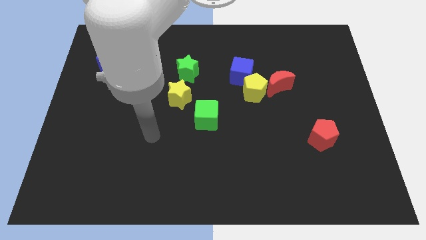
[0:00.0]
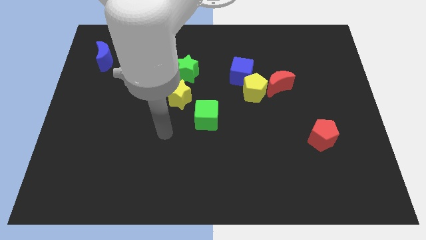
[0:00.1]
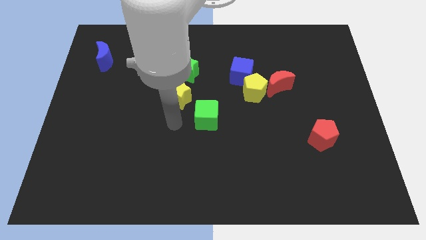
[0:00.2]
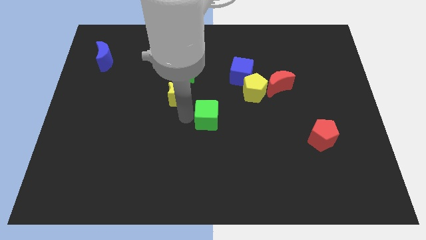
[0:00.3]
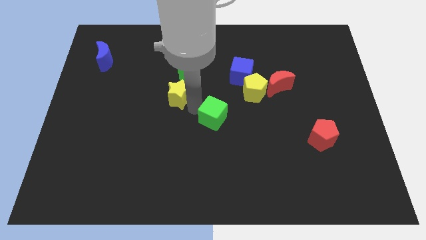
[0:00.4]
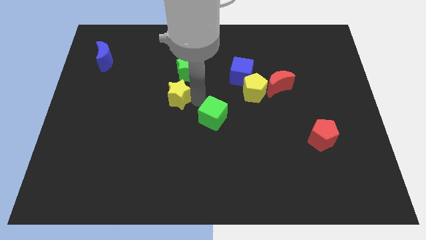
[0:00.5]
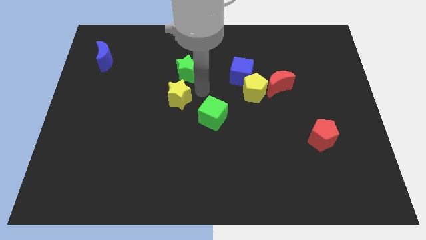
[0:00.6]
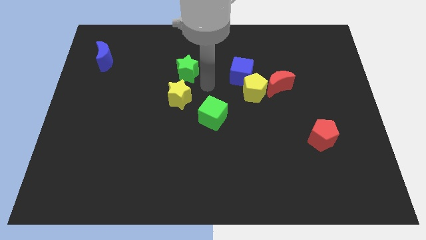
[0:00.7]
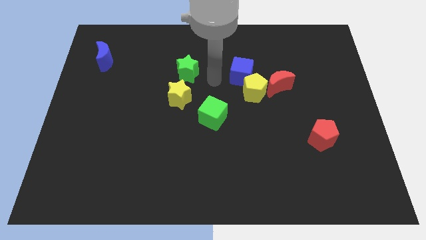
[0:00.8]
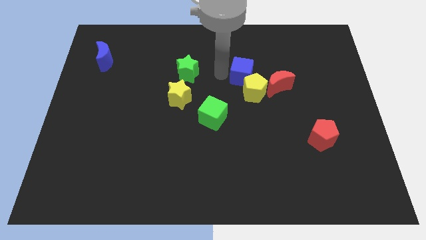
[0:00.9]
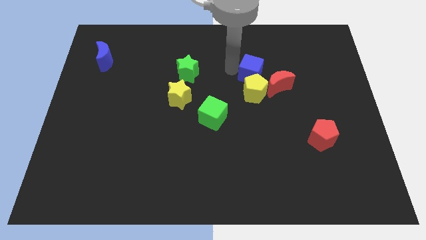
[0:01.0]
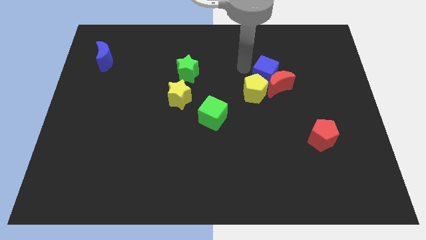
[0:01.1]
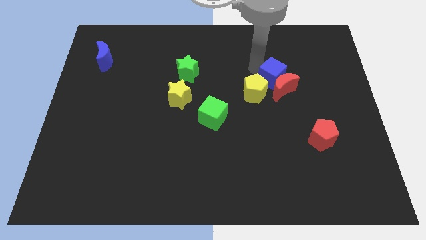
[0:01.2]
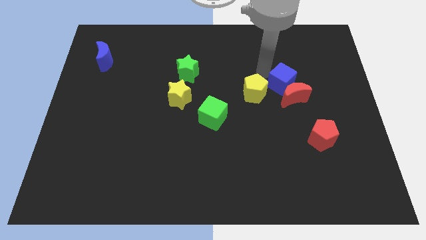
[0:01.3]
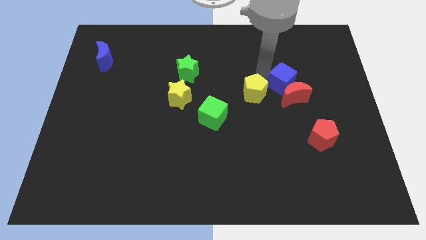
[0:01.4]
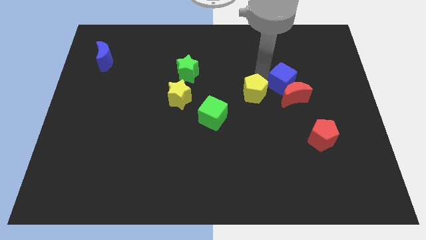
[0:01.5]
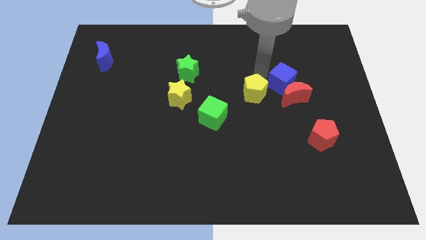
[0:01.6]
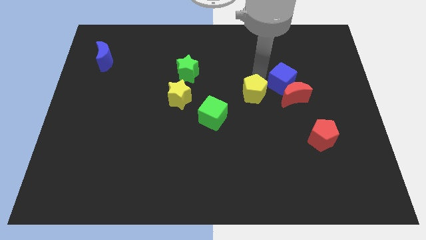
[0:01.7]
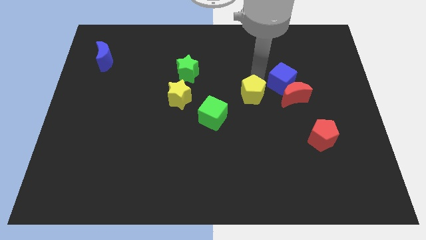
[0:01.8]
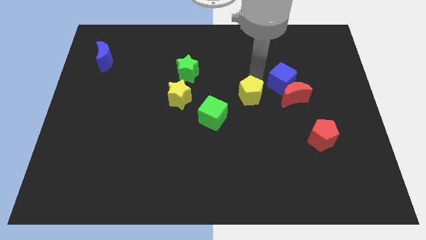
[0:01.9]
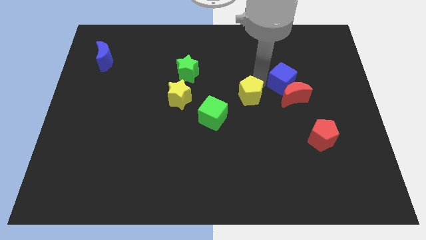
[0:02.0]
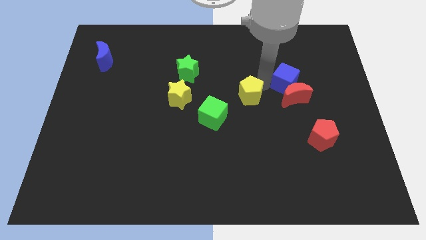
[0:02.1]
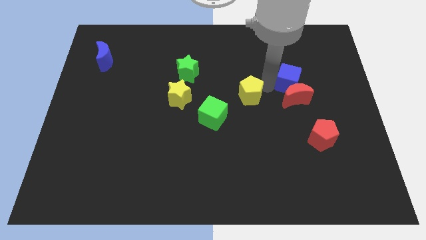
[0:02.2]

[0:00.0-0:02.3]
move the yellow pentagon away from the blue cube and red moon

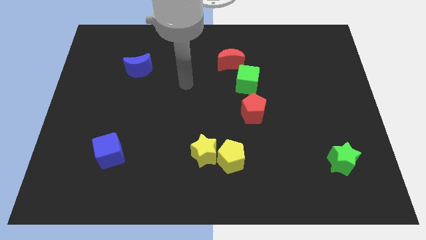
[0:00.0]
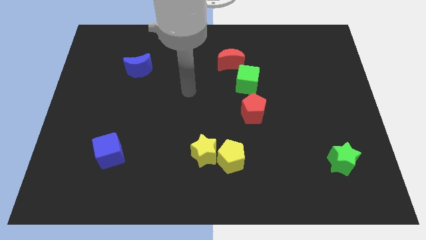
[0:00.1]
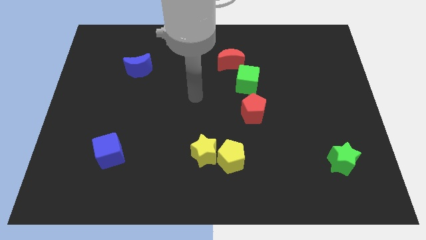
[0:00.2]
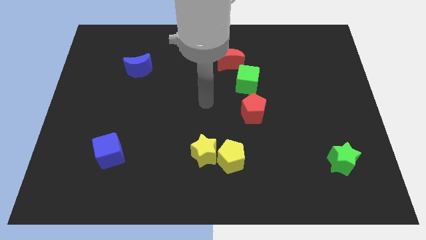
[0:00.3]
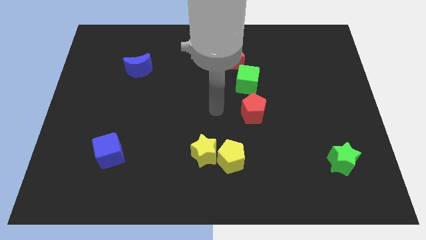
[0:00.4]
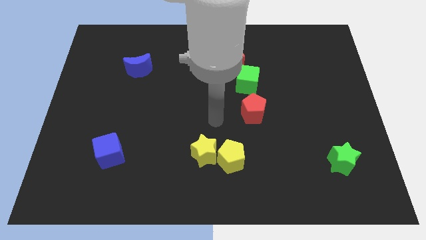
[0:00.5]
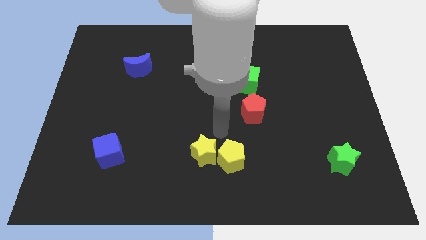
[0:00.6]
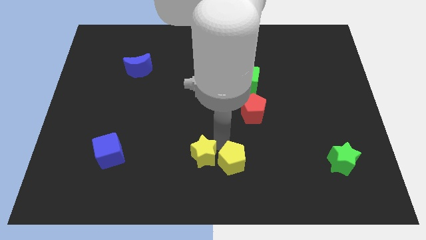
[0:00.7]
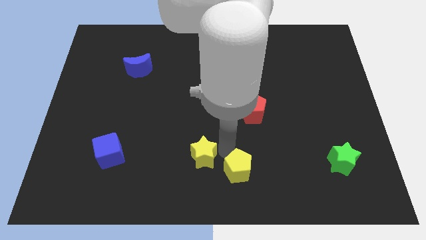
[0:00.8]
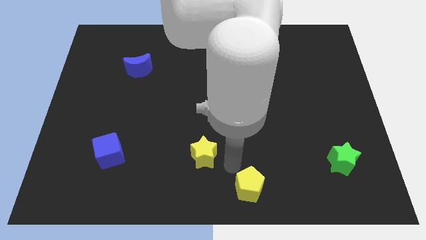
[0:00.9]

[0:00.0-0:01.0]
move the yellow star away from the yellow pentagon

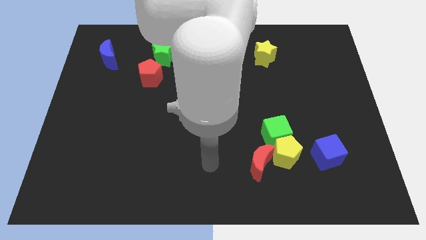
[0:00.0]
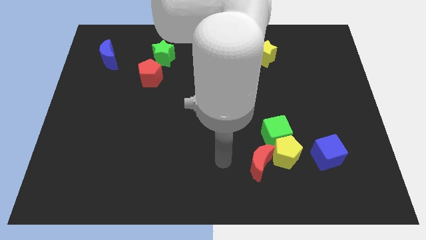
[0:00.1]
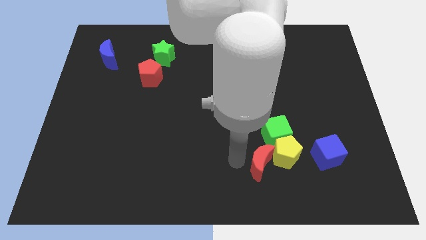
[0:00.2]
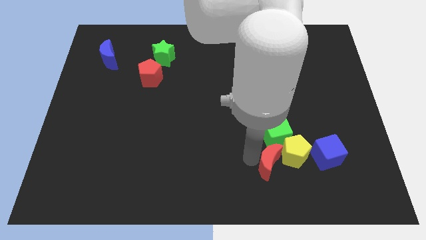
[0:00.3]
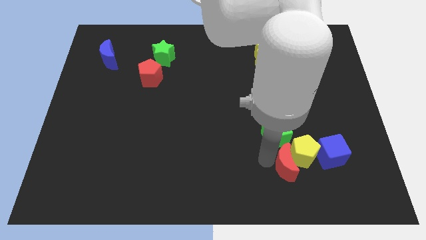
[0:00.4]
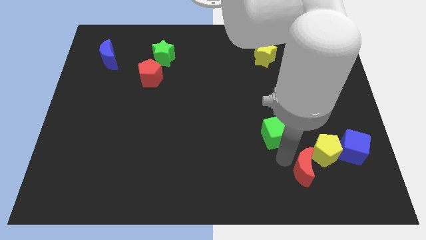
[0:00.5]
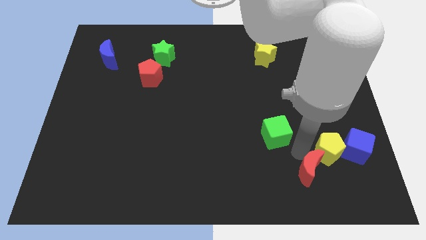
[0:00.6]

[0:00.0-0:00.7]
pull the green cube apart from the yellow pentagon and red moon

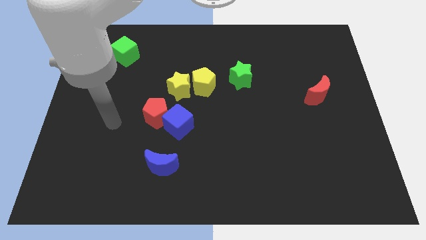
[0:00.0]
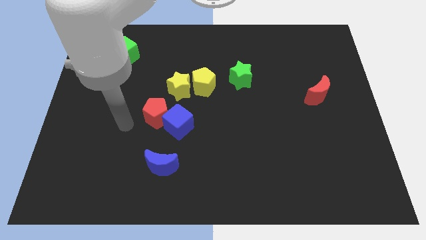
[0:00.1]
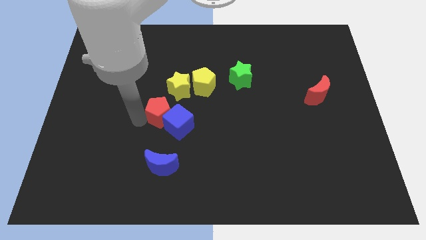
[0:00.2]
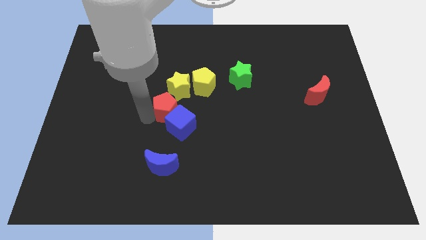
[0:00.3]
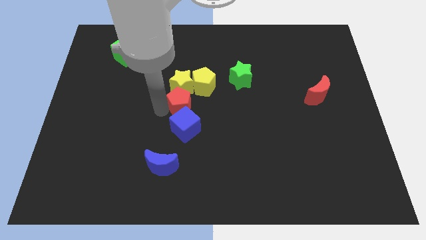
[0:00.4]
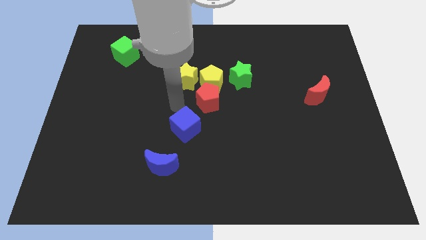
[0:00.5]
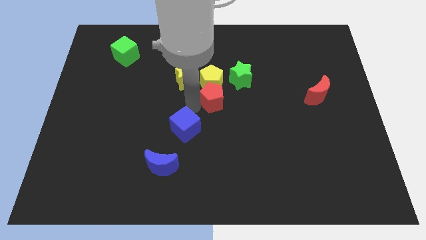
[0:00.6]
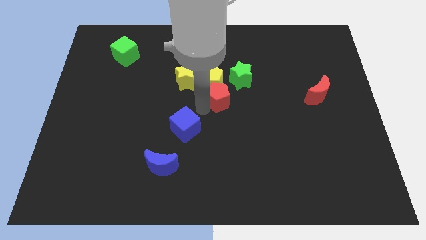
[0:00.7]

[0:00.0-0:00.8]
pull the blue cube apart from the red pentagon

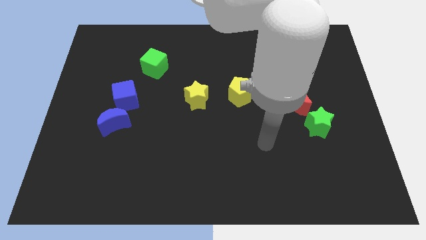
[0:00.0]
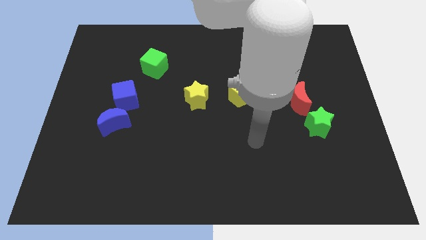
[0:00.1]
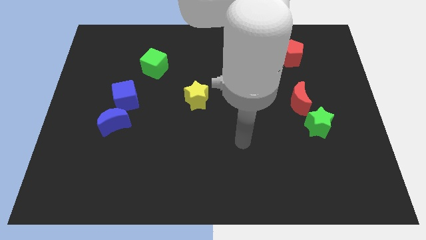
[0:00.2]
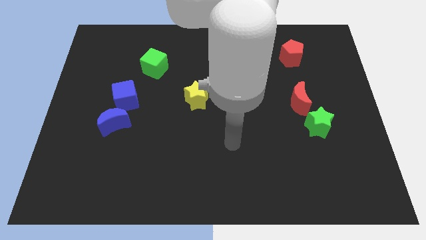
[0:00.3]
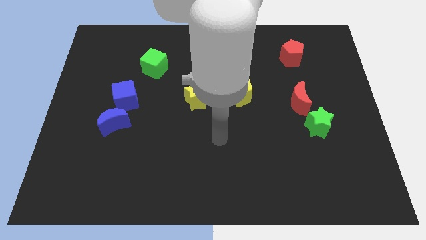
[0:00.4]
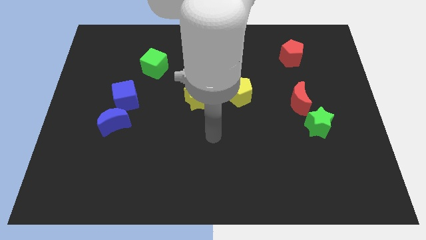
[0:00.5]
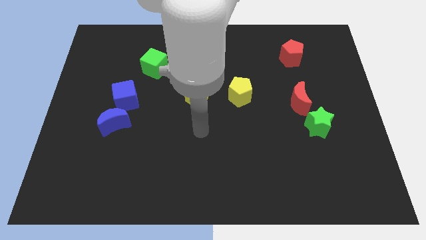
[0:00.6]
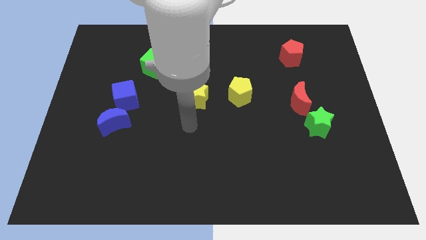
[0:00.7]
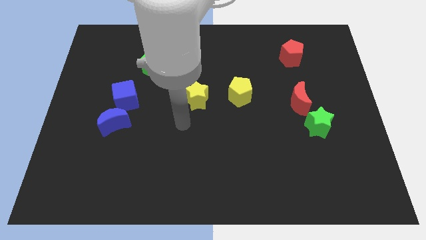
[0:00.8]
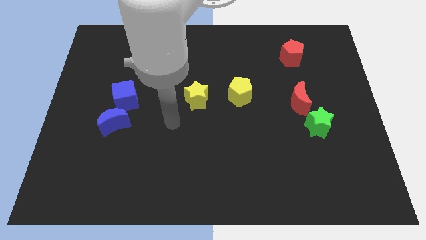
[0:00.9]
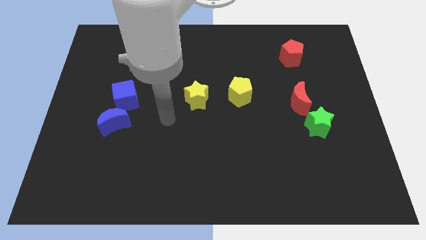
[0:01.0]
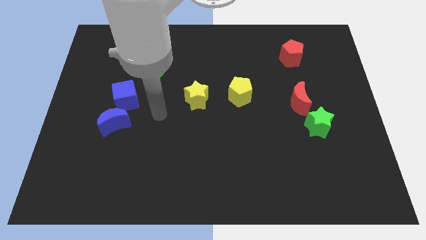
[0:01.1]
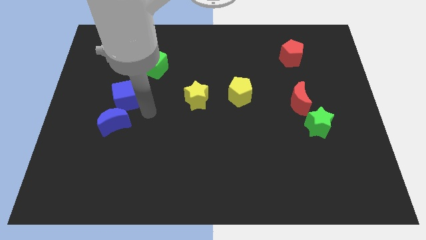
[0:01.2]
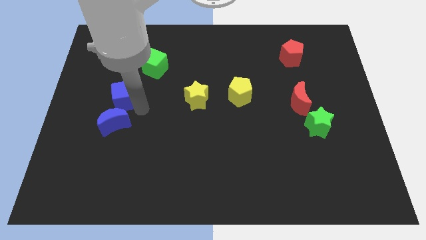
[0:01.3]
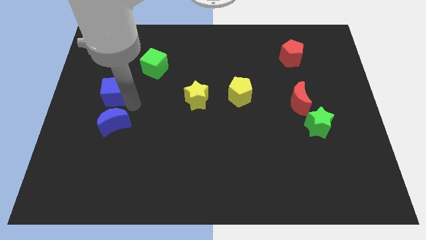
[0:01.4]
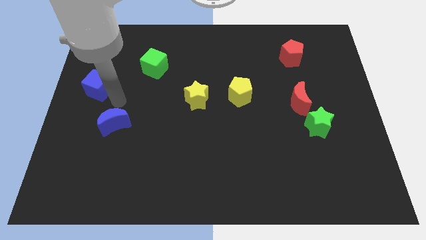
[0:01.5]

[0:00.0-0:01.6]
move the blue moon away from the blue cube

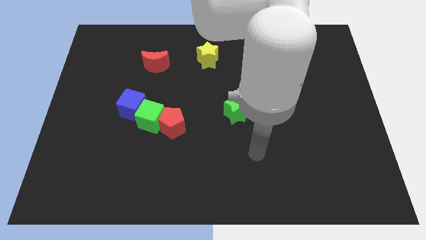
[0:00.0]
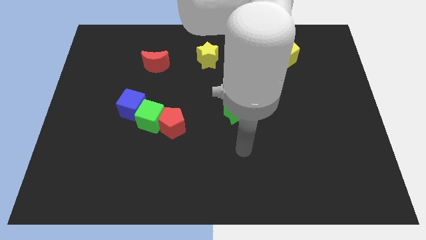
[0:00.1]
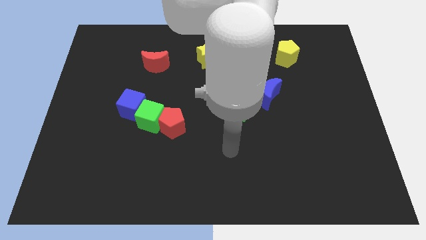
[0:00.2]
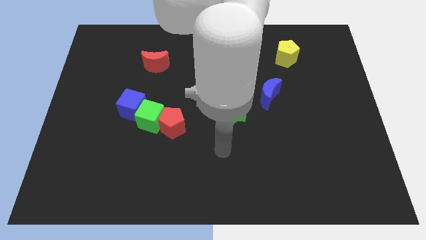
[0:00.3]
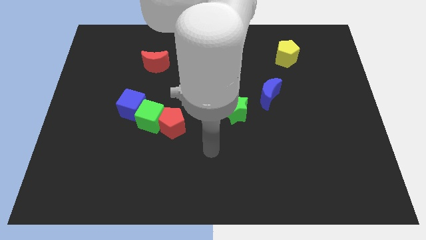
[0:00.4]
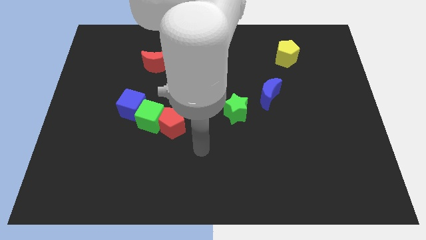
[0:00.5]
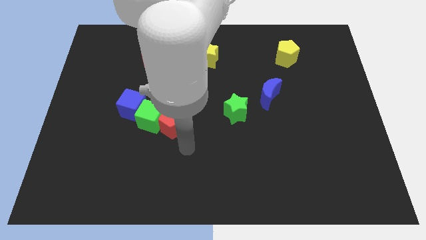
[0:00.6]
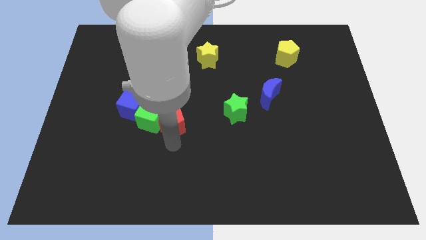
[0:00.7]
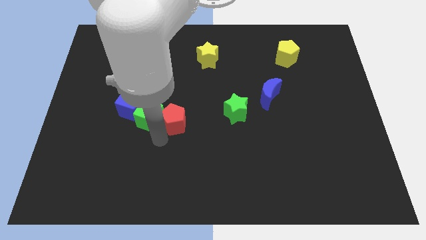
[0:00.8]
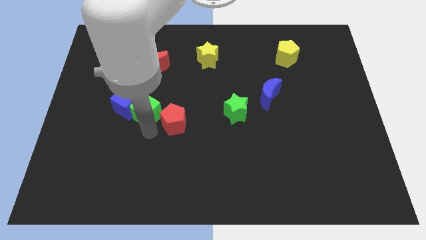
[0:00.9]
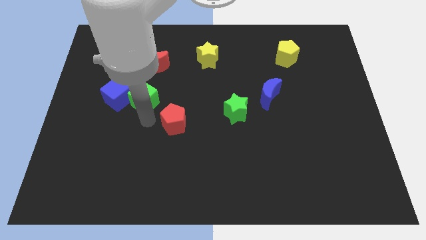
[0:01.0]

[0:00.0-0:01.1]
pull the red pentagon apart from the green cube

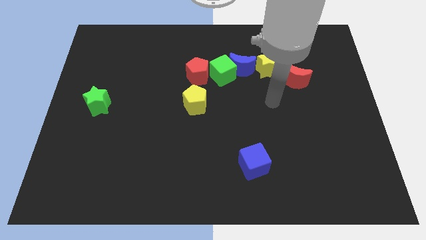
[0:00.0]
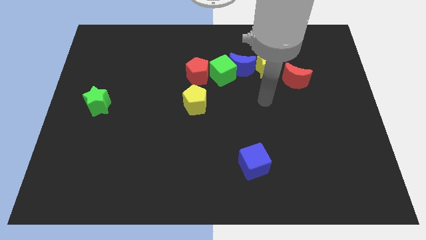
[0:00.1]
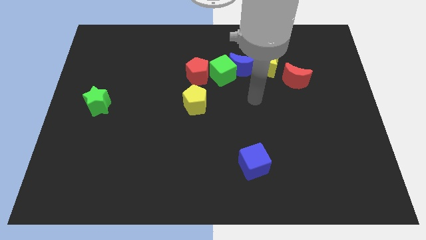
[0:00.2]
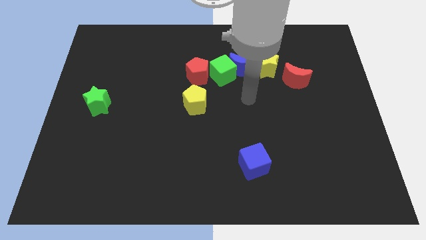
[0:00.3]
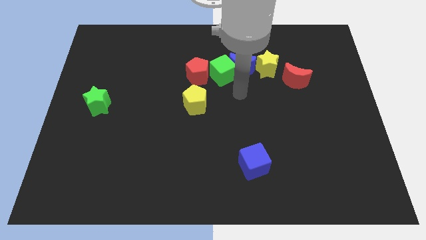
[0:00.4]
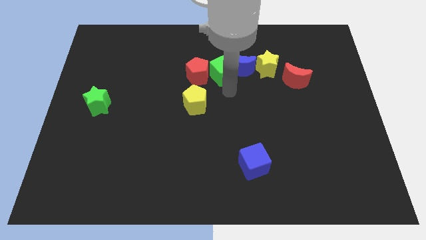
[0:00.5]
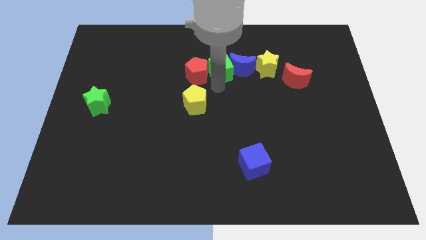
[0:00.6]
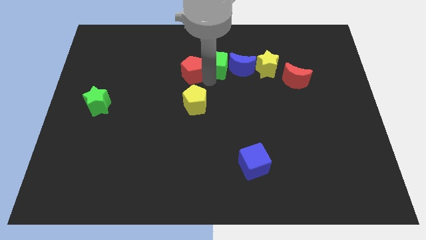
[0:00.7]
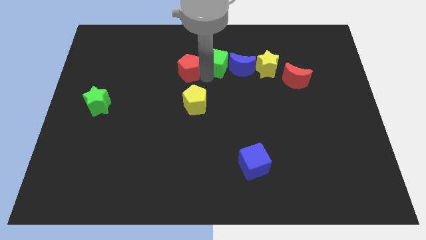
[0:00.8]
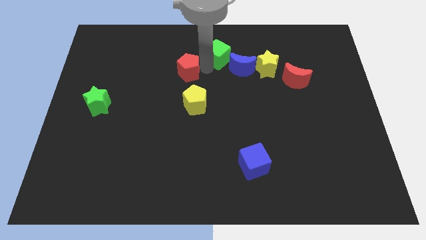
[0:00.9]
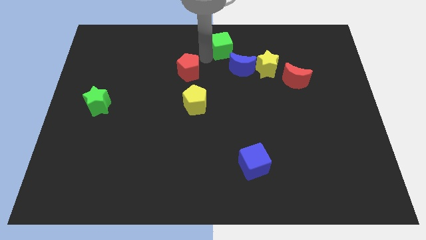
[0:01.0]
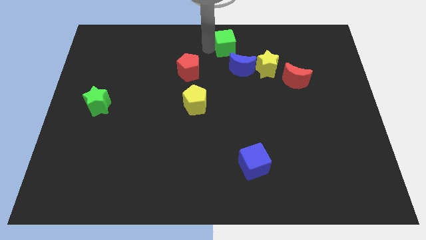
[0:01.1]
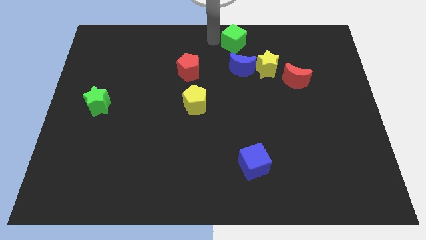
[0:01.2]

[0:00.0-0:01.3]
move the green cube away from the blue moon and red pentagon

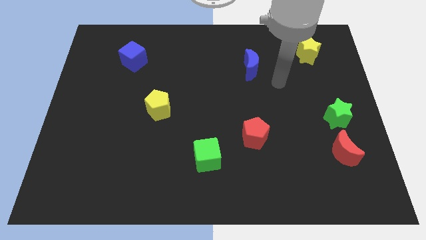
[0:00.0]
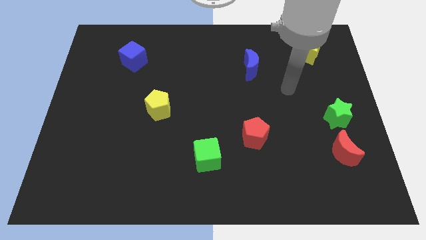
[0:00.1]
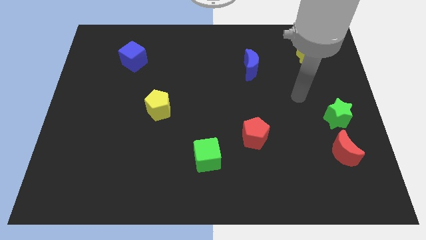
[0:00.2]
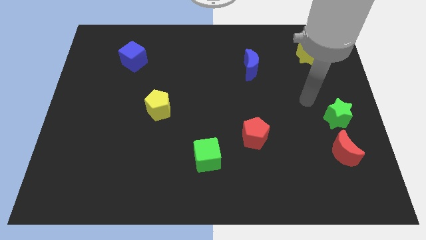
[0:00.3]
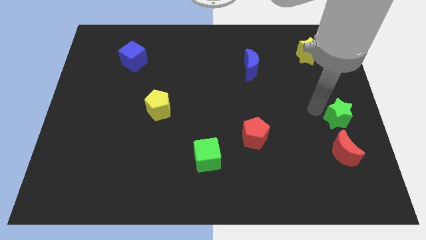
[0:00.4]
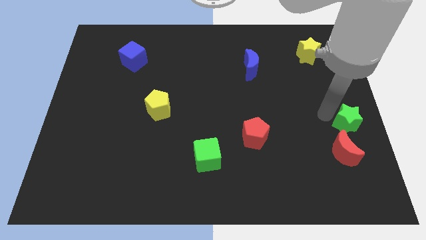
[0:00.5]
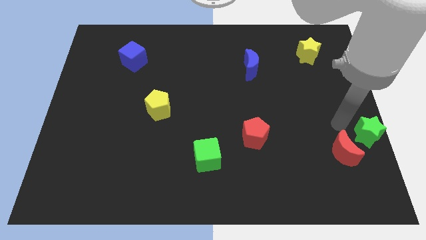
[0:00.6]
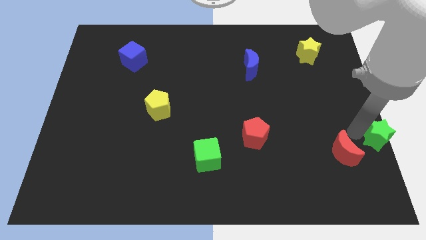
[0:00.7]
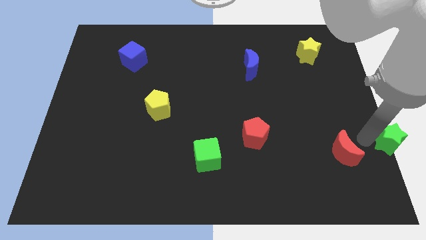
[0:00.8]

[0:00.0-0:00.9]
separate the red moon from the green star
